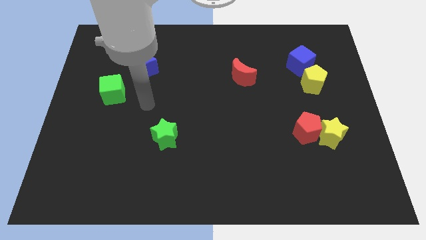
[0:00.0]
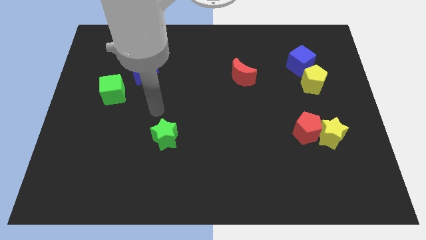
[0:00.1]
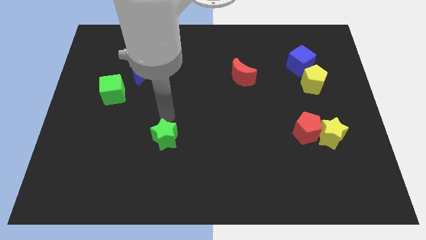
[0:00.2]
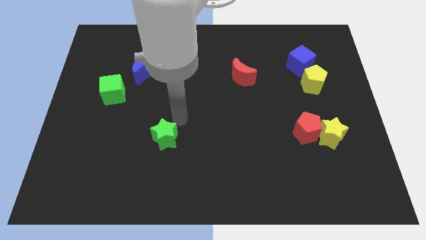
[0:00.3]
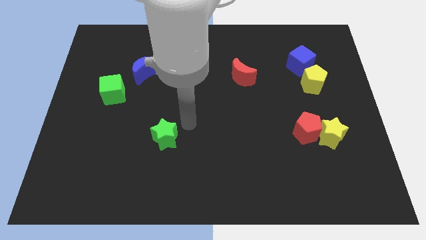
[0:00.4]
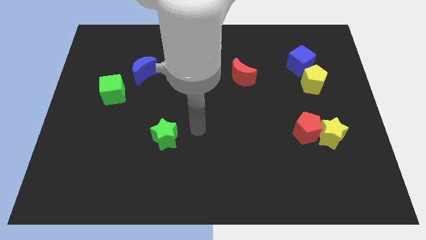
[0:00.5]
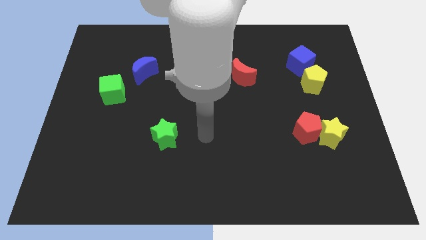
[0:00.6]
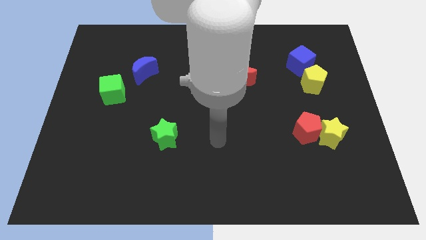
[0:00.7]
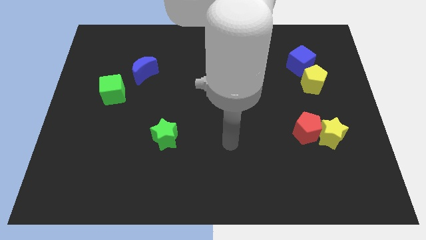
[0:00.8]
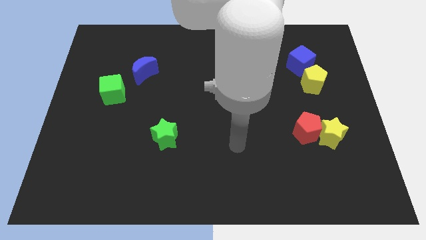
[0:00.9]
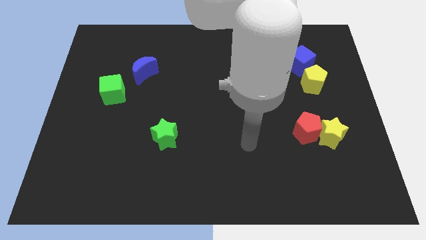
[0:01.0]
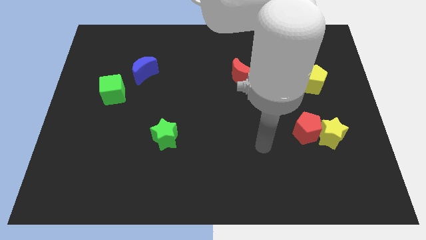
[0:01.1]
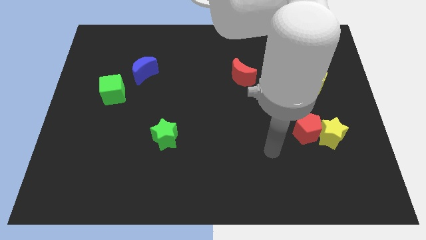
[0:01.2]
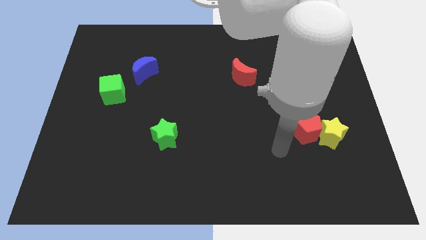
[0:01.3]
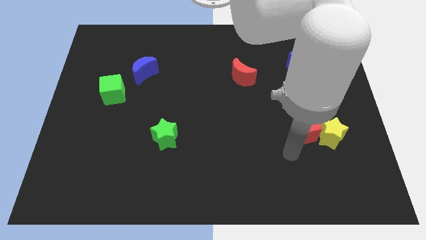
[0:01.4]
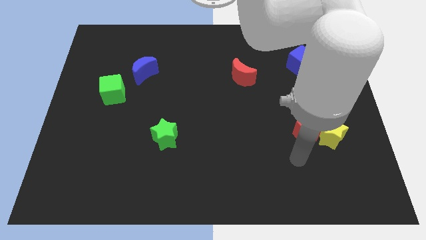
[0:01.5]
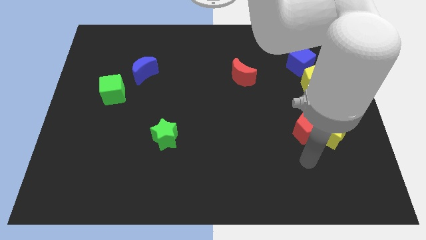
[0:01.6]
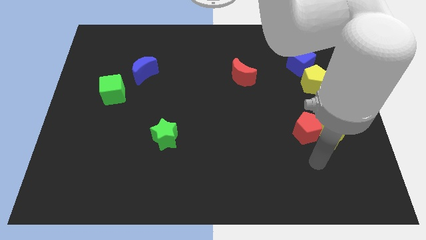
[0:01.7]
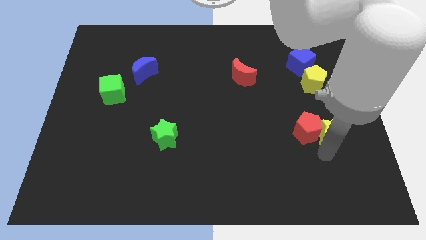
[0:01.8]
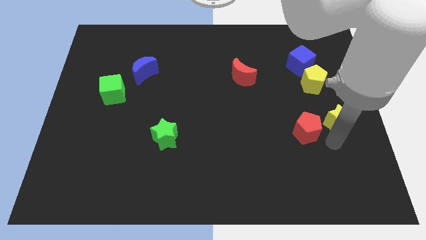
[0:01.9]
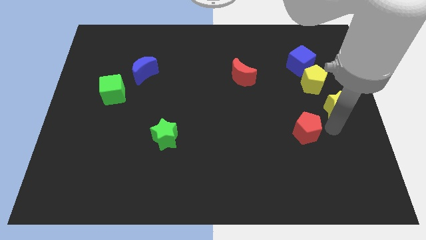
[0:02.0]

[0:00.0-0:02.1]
move the red pentagon away from the yellow star

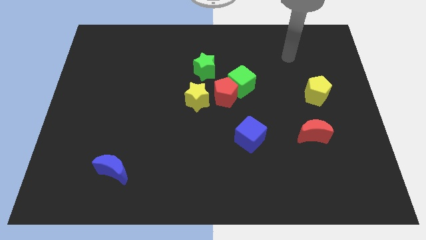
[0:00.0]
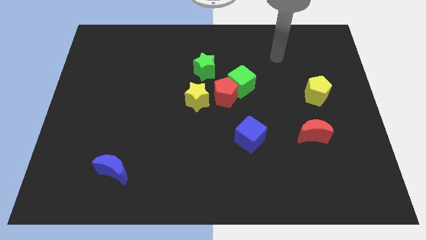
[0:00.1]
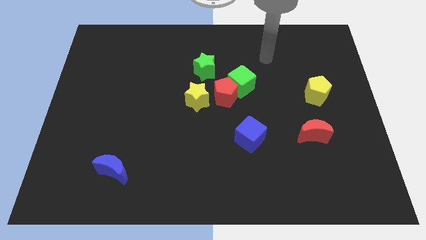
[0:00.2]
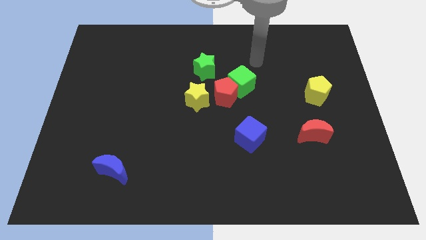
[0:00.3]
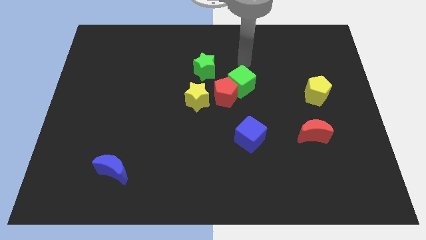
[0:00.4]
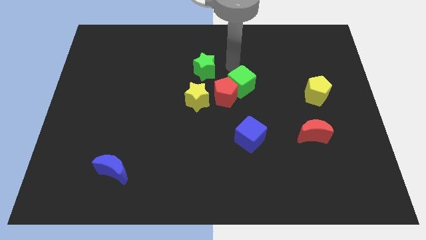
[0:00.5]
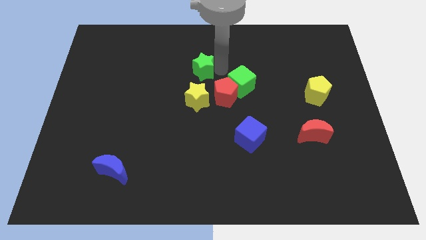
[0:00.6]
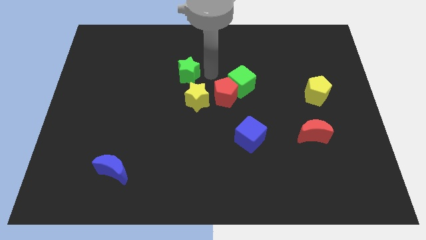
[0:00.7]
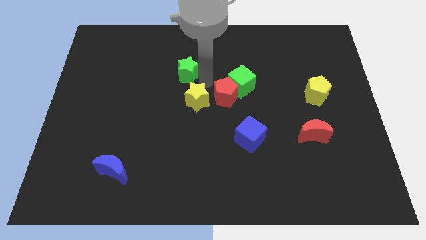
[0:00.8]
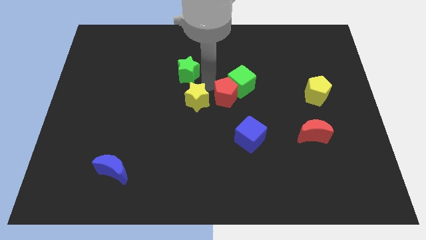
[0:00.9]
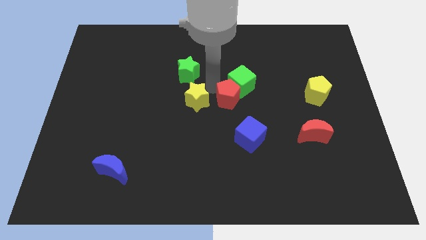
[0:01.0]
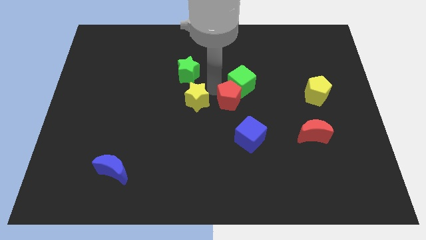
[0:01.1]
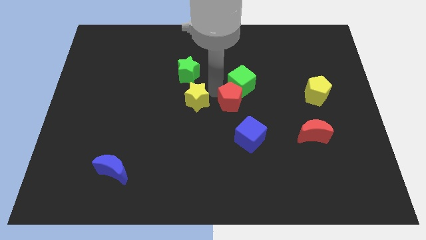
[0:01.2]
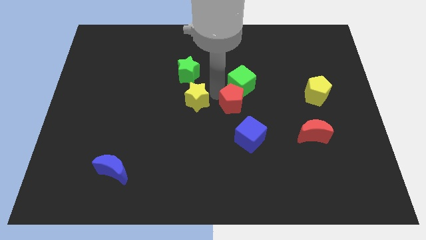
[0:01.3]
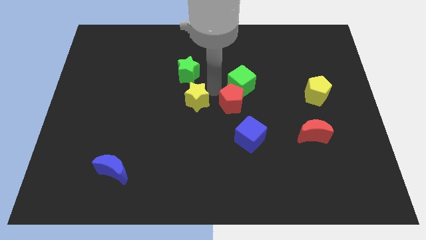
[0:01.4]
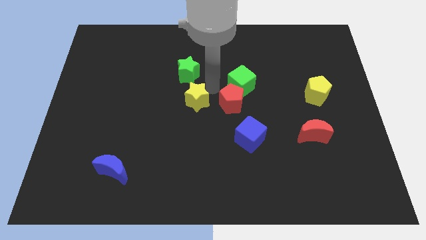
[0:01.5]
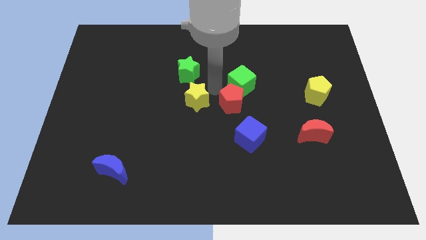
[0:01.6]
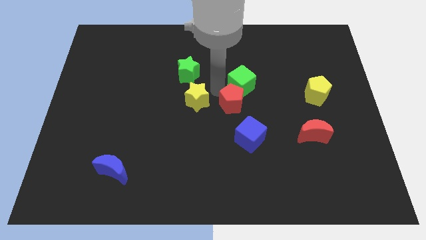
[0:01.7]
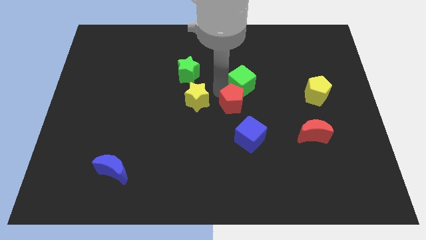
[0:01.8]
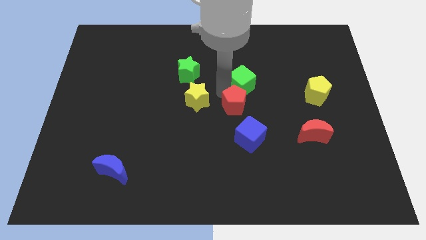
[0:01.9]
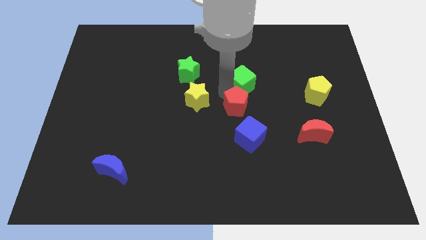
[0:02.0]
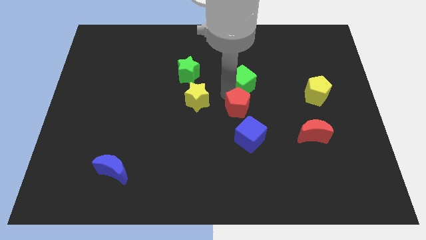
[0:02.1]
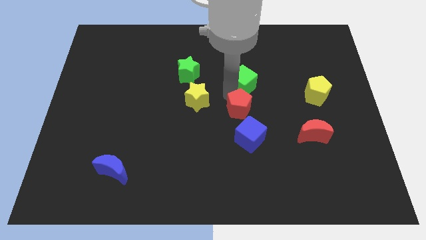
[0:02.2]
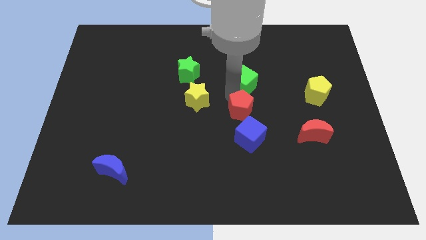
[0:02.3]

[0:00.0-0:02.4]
separate the red pentagon from the green cube, yellow star, and green star

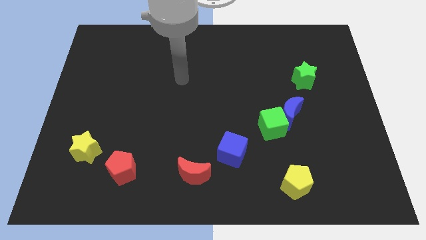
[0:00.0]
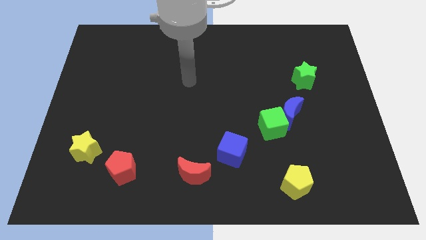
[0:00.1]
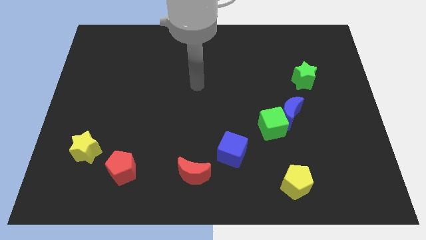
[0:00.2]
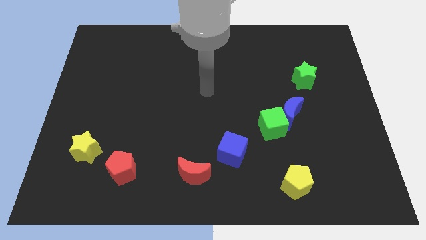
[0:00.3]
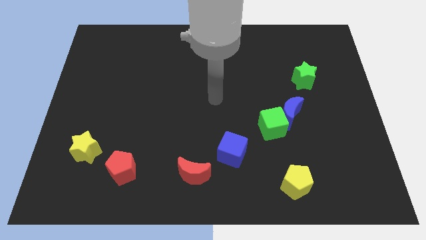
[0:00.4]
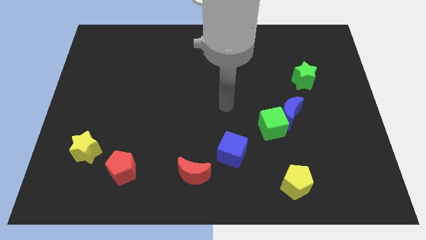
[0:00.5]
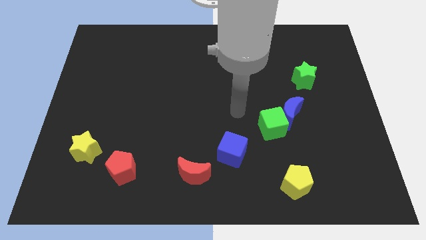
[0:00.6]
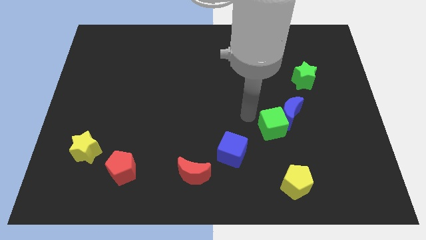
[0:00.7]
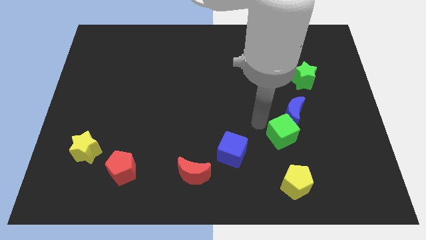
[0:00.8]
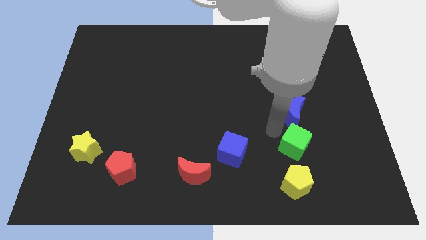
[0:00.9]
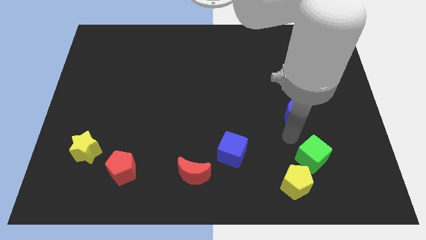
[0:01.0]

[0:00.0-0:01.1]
move the blue moon away from the green cube

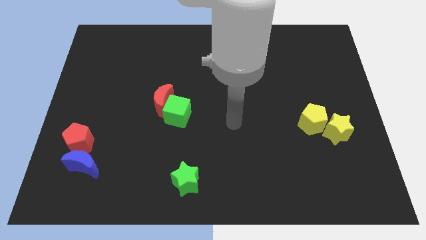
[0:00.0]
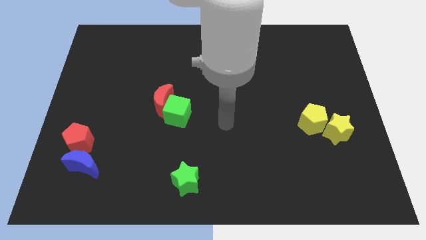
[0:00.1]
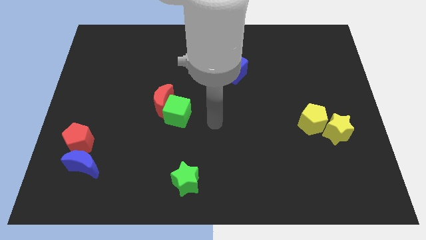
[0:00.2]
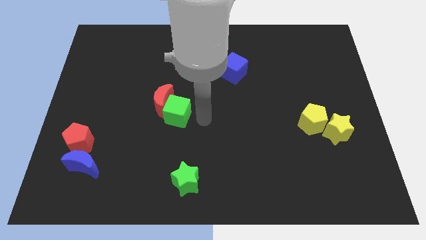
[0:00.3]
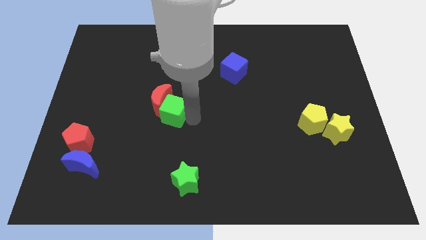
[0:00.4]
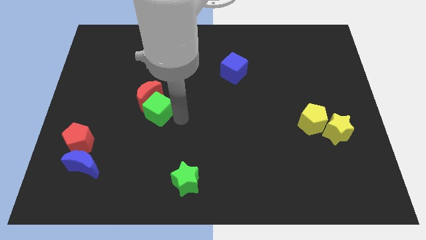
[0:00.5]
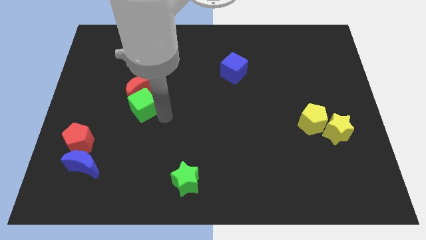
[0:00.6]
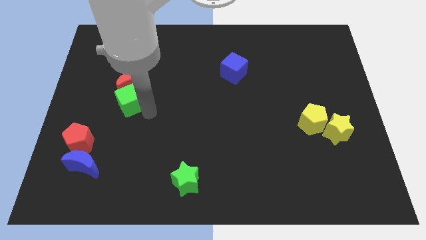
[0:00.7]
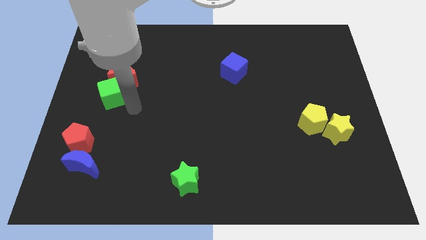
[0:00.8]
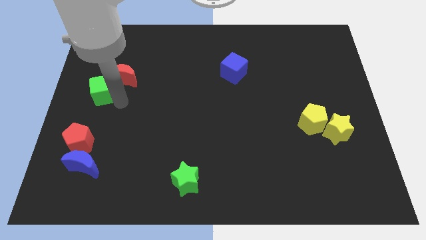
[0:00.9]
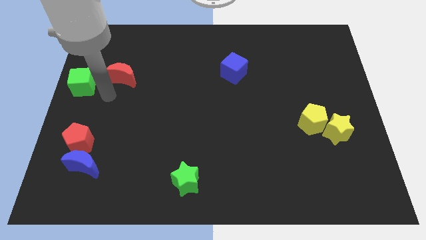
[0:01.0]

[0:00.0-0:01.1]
separate the red moon from the green cube

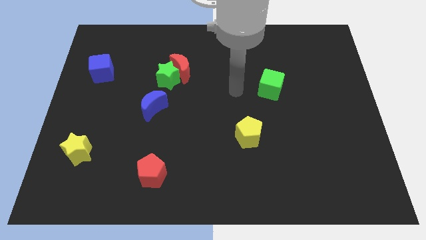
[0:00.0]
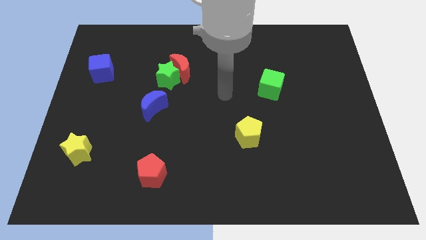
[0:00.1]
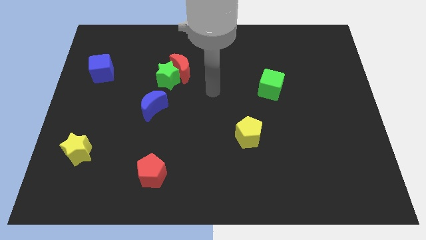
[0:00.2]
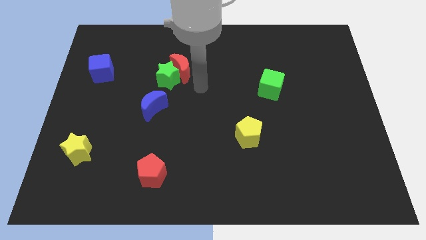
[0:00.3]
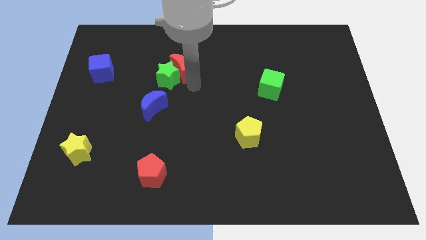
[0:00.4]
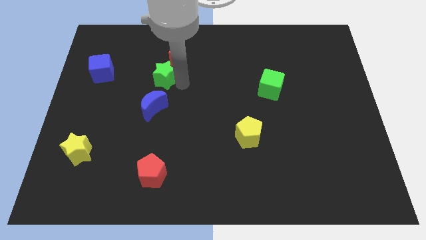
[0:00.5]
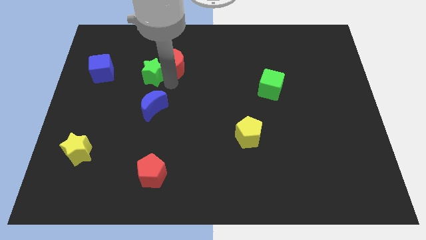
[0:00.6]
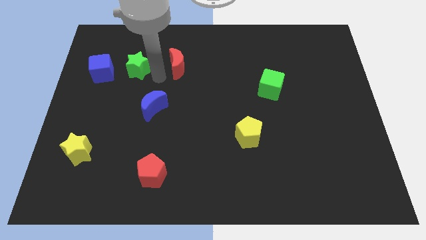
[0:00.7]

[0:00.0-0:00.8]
move the red moon away from the green star

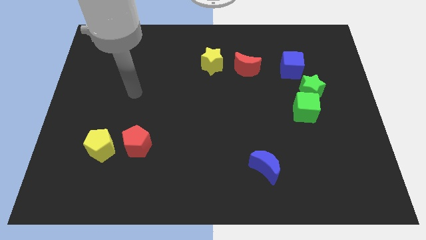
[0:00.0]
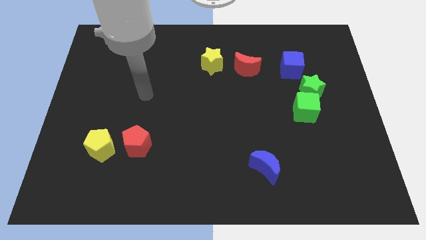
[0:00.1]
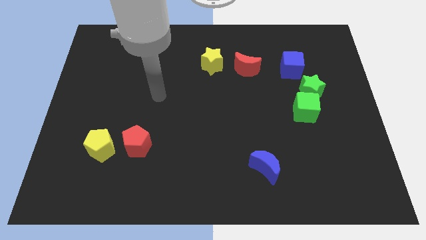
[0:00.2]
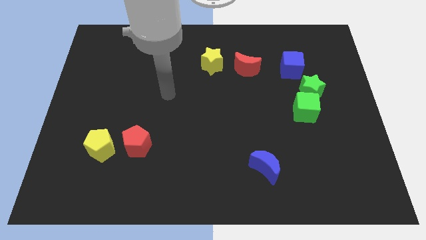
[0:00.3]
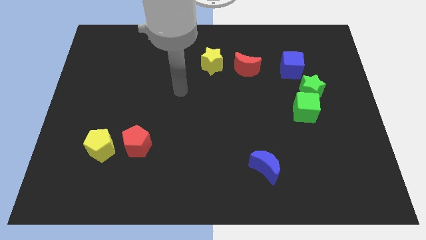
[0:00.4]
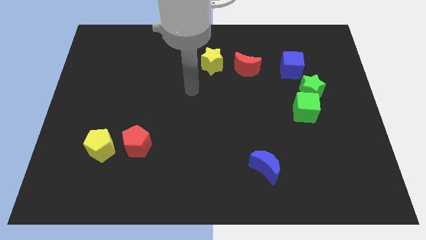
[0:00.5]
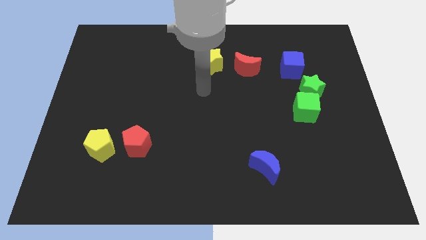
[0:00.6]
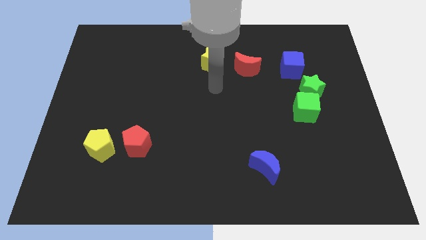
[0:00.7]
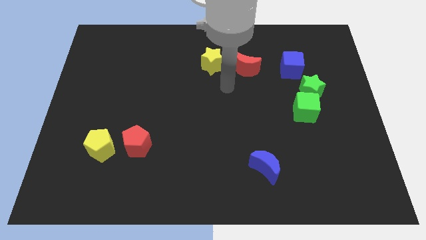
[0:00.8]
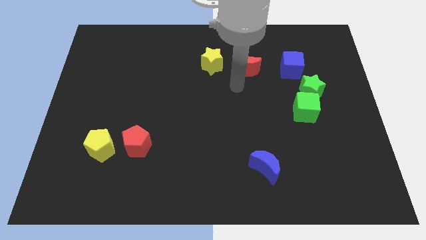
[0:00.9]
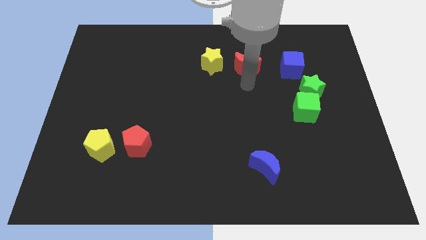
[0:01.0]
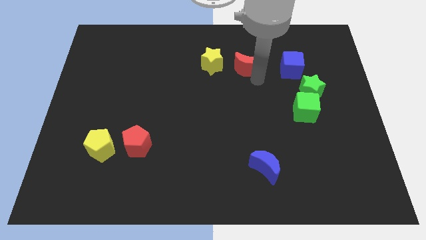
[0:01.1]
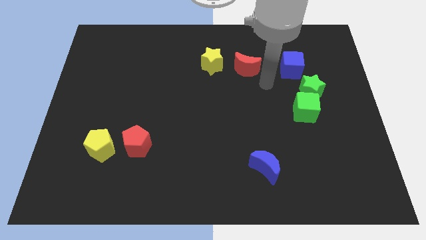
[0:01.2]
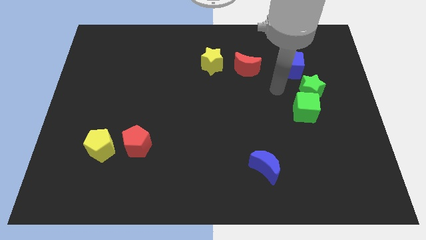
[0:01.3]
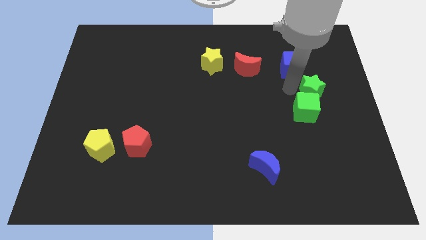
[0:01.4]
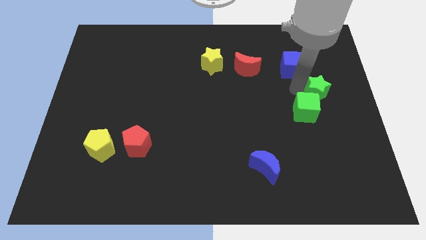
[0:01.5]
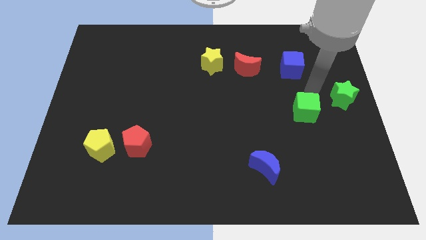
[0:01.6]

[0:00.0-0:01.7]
move the green cube away from the green star

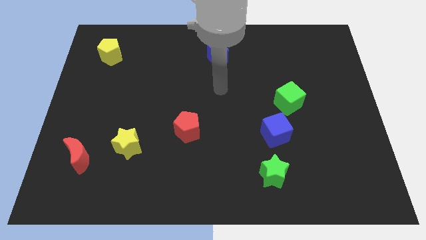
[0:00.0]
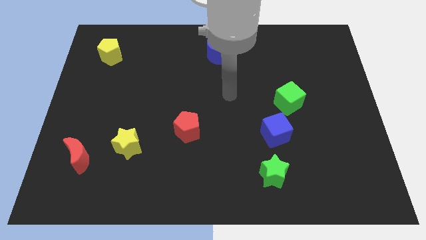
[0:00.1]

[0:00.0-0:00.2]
move the green cube away from the blue cube
